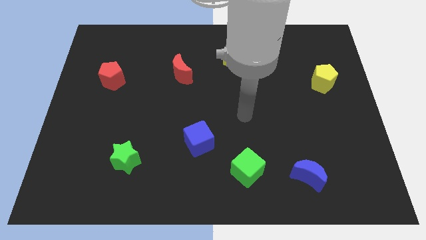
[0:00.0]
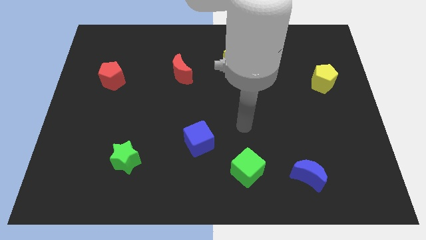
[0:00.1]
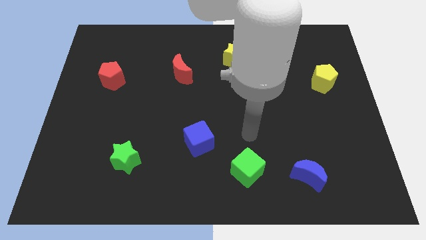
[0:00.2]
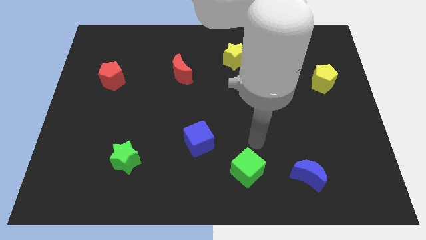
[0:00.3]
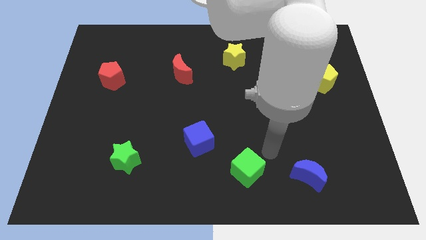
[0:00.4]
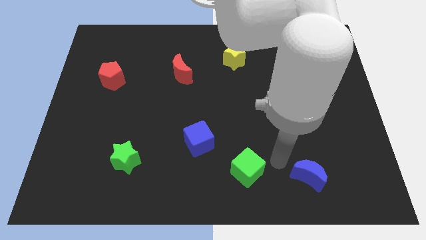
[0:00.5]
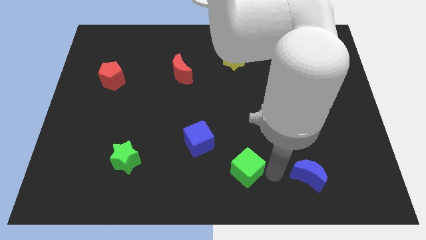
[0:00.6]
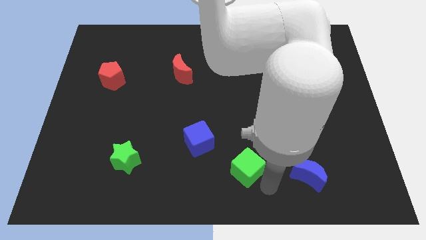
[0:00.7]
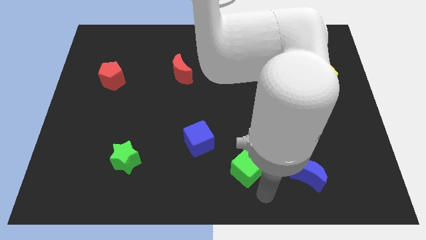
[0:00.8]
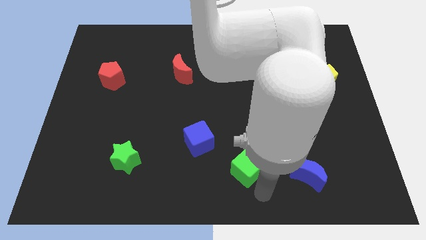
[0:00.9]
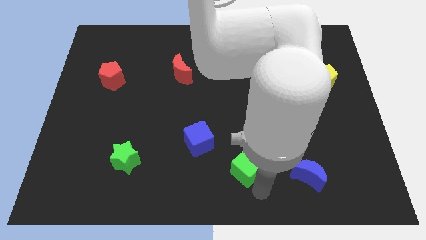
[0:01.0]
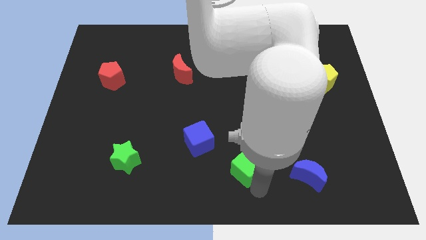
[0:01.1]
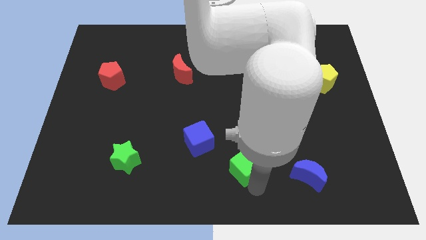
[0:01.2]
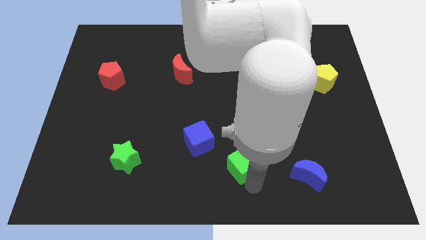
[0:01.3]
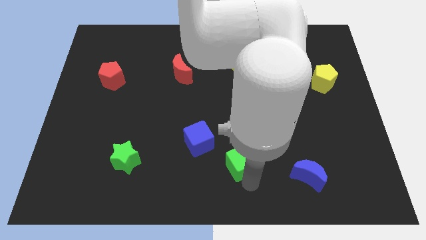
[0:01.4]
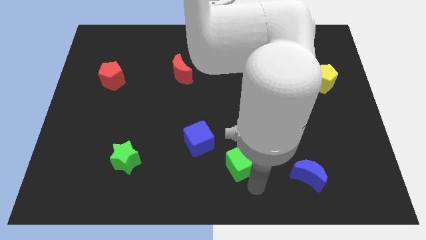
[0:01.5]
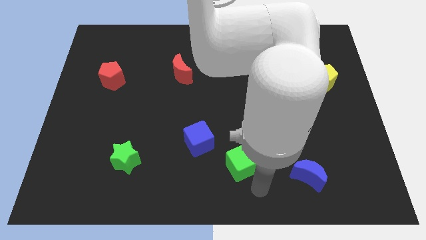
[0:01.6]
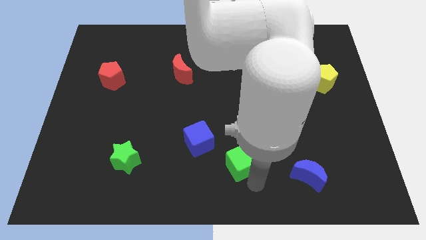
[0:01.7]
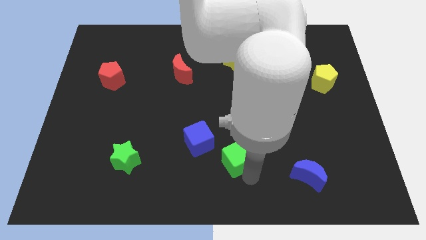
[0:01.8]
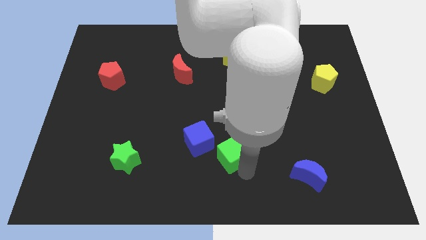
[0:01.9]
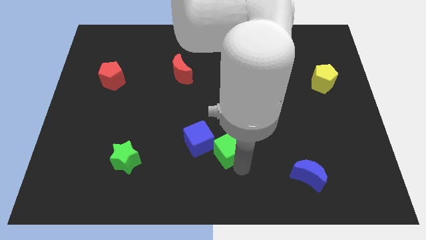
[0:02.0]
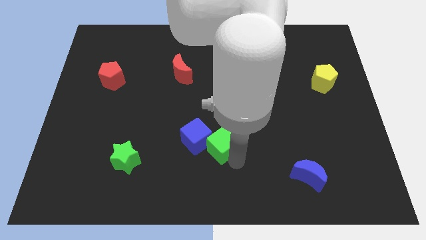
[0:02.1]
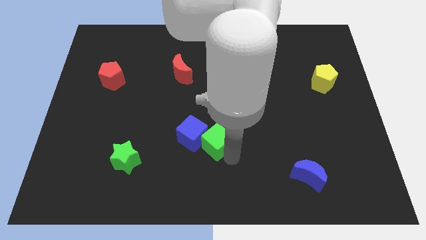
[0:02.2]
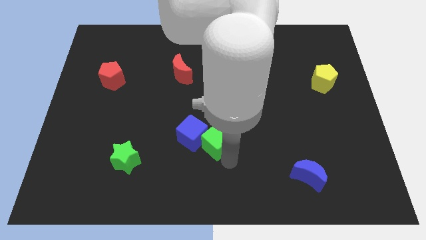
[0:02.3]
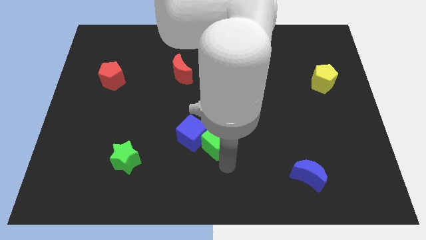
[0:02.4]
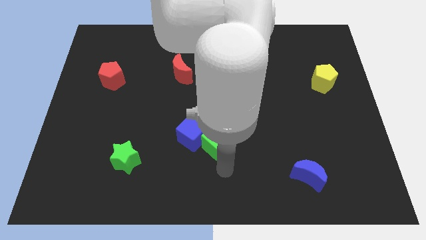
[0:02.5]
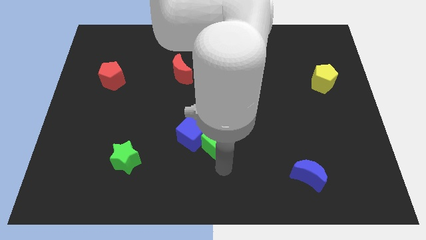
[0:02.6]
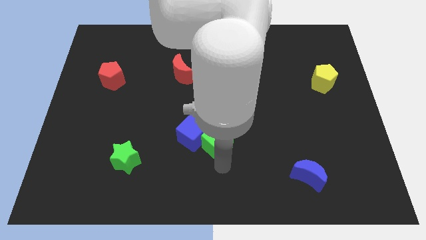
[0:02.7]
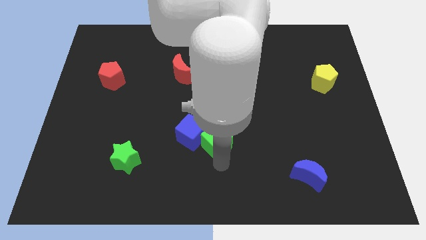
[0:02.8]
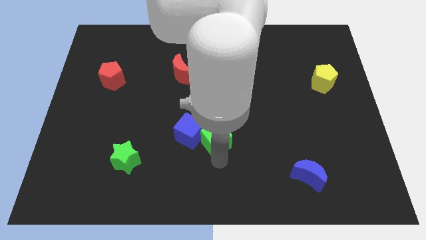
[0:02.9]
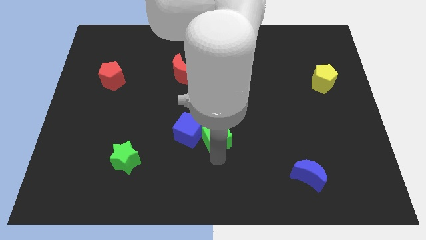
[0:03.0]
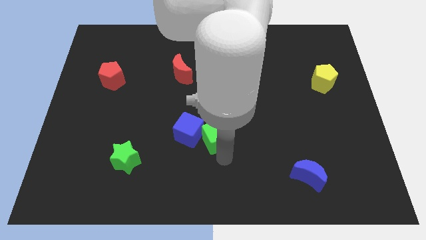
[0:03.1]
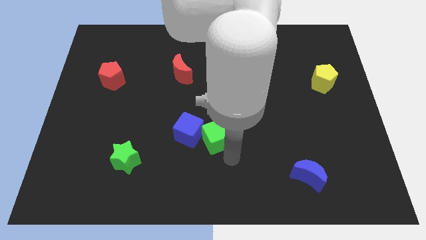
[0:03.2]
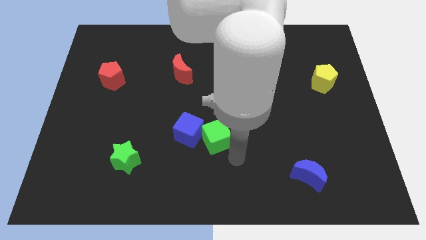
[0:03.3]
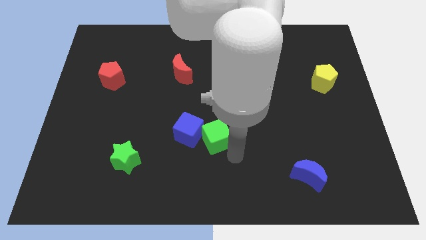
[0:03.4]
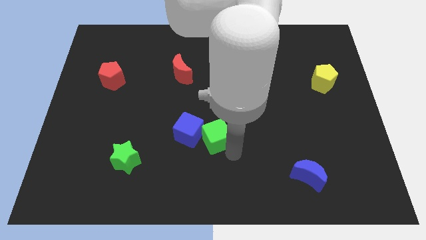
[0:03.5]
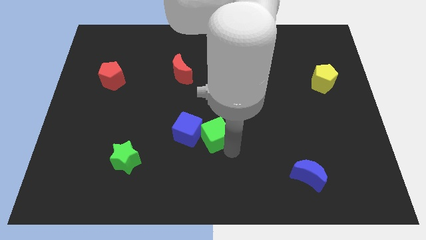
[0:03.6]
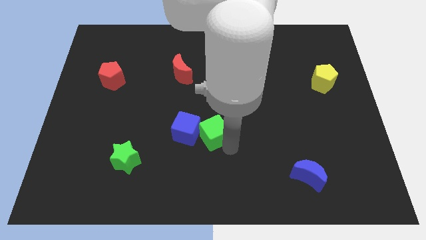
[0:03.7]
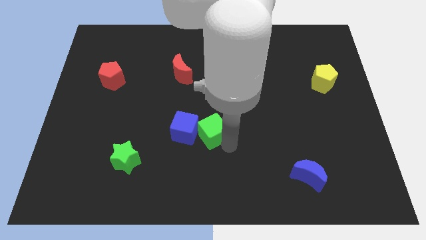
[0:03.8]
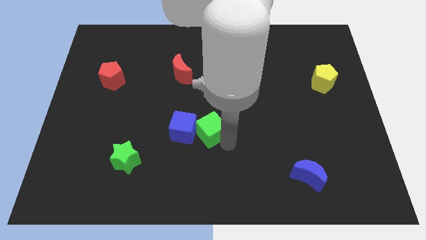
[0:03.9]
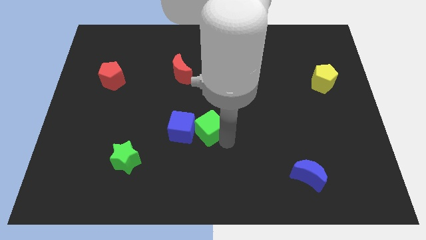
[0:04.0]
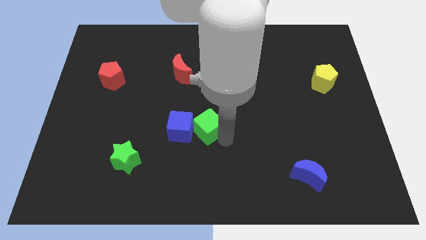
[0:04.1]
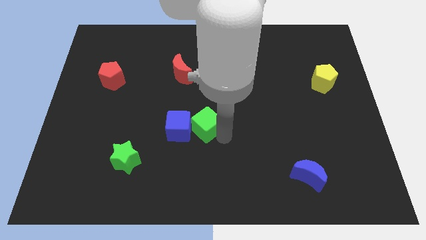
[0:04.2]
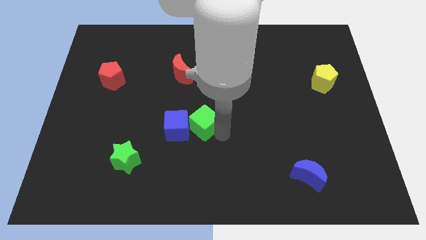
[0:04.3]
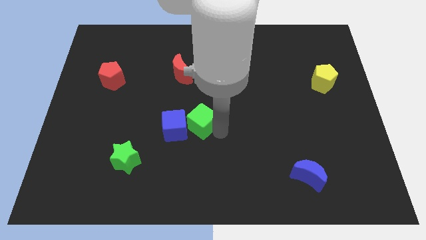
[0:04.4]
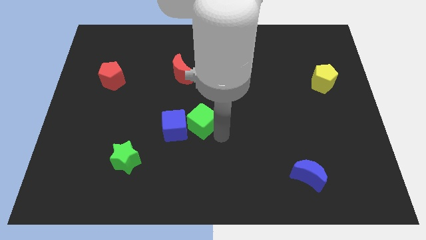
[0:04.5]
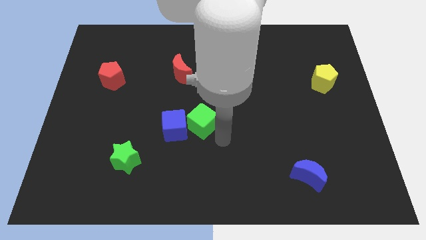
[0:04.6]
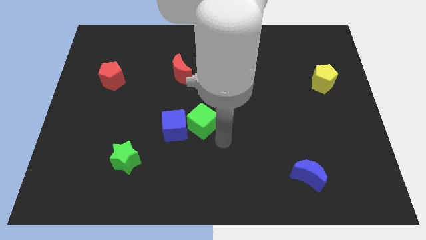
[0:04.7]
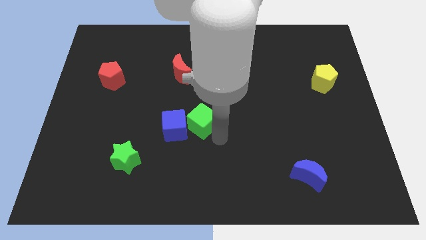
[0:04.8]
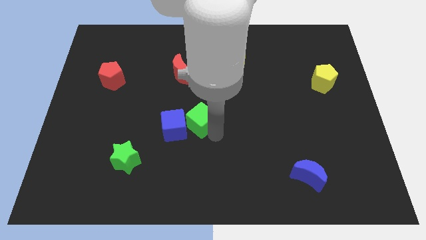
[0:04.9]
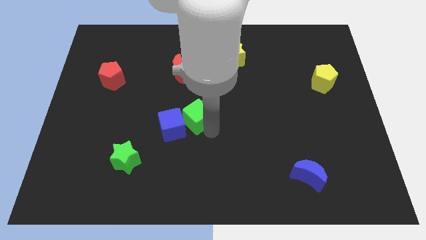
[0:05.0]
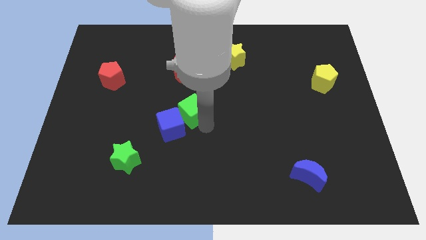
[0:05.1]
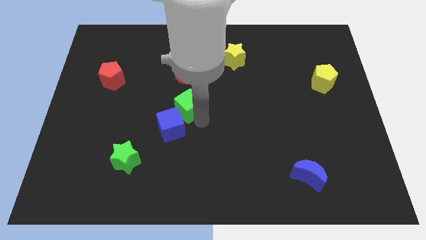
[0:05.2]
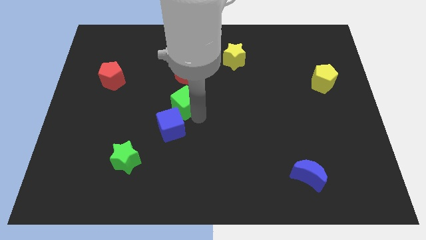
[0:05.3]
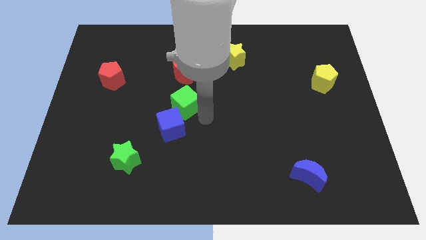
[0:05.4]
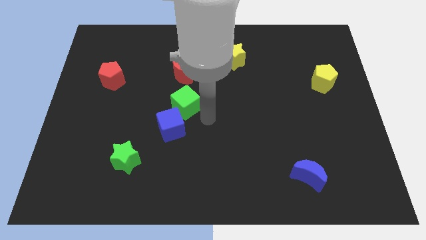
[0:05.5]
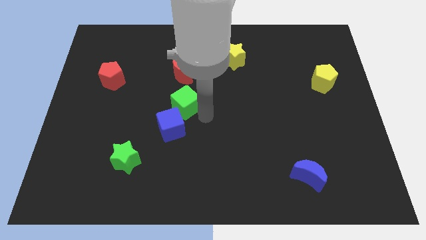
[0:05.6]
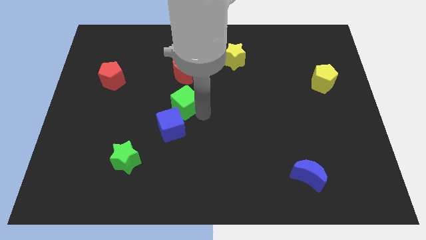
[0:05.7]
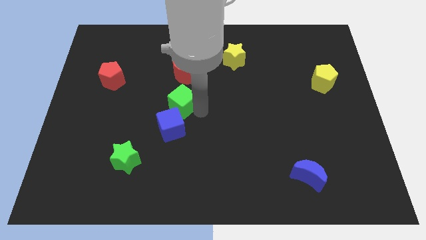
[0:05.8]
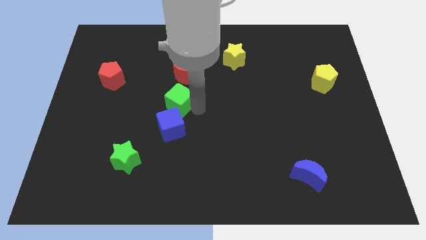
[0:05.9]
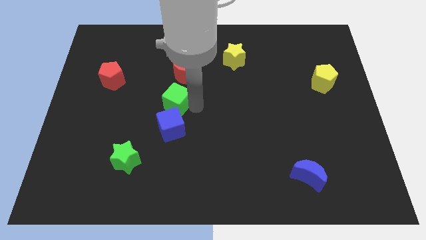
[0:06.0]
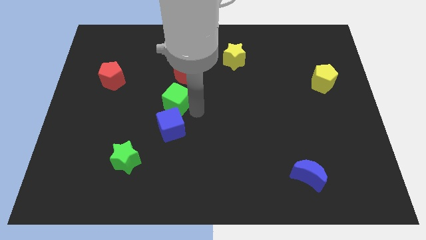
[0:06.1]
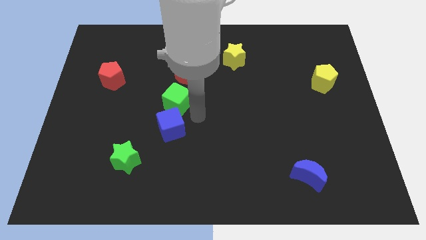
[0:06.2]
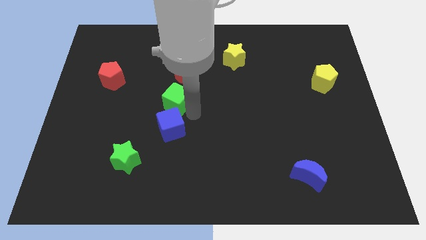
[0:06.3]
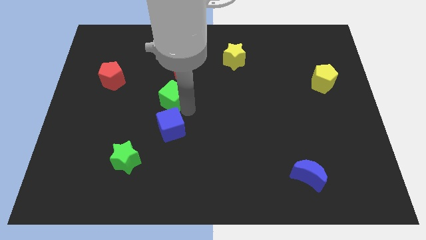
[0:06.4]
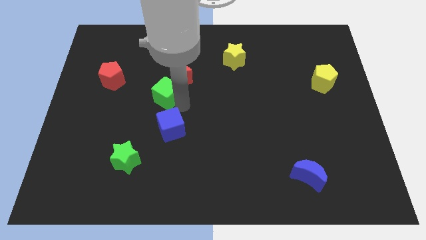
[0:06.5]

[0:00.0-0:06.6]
move the green cube diagonally down and to the left of the red moon
